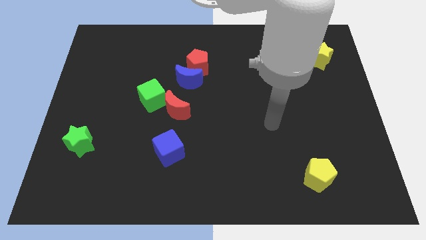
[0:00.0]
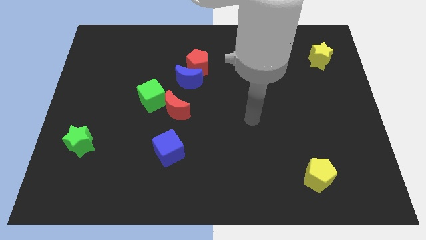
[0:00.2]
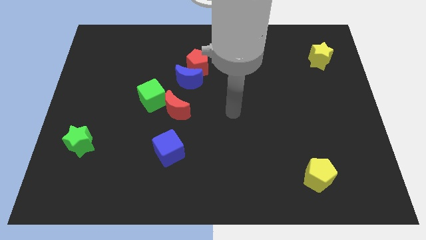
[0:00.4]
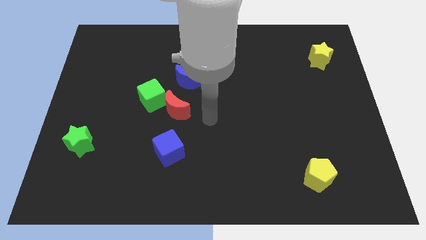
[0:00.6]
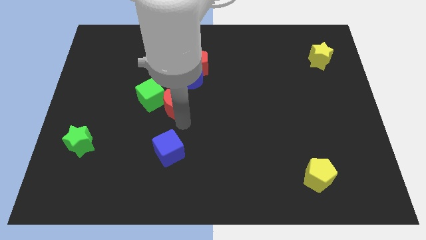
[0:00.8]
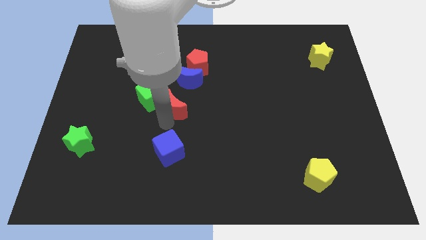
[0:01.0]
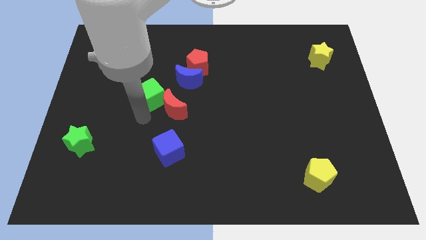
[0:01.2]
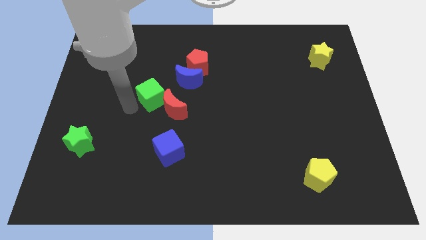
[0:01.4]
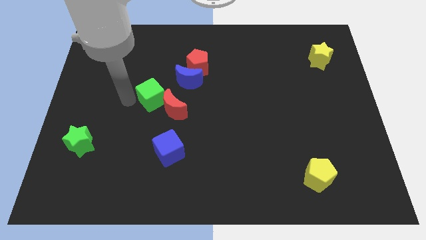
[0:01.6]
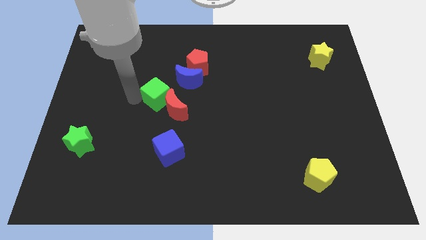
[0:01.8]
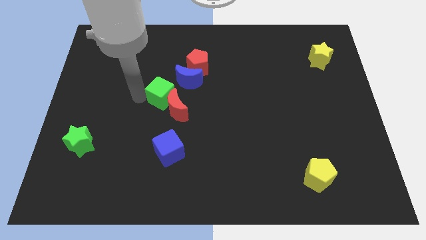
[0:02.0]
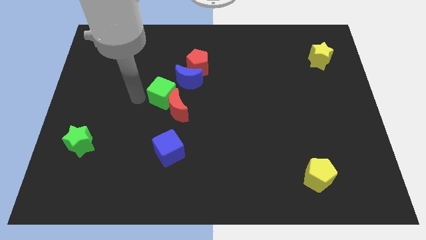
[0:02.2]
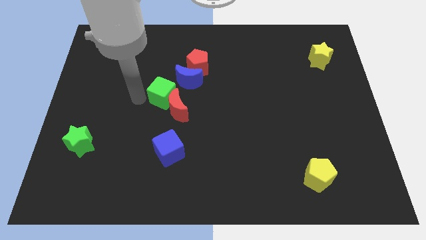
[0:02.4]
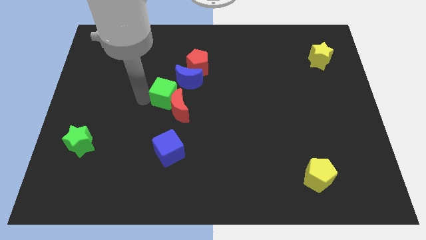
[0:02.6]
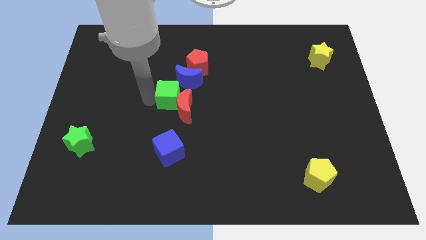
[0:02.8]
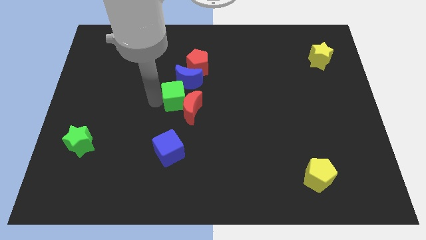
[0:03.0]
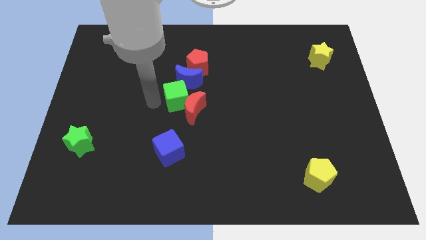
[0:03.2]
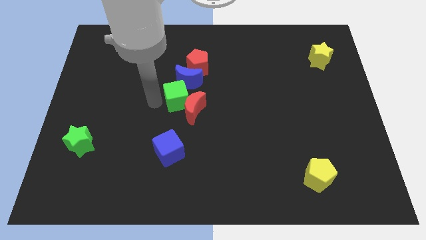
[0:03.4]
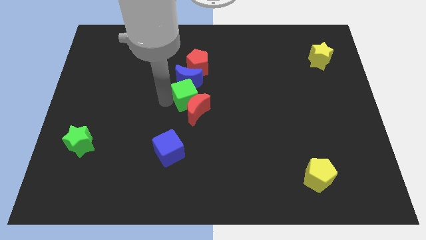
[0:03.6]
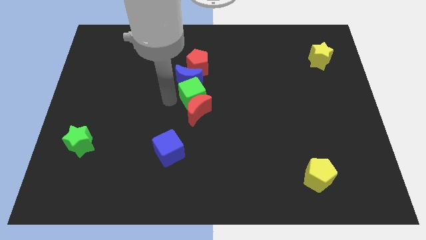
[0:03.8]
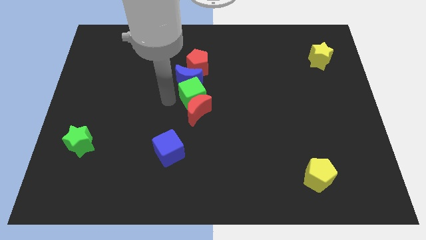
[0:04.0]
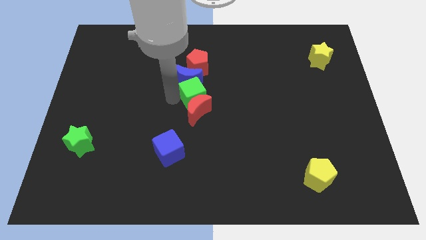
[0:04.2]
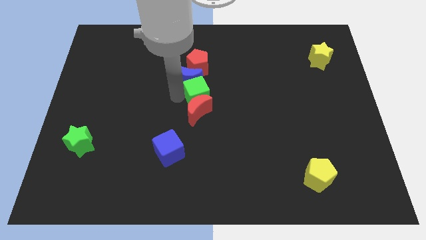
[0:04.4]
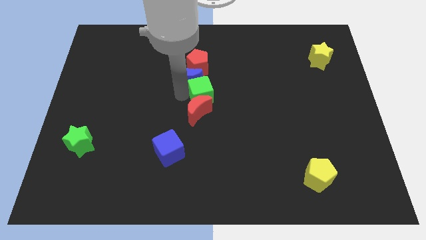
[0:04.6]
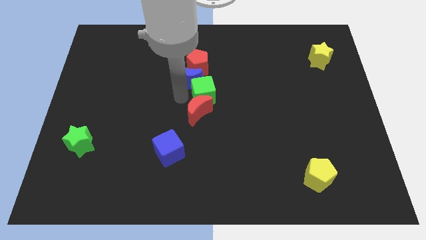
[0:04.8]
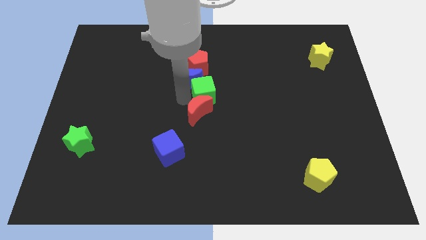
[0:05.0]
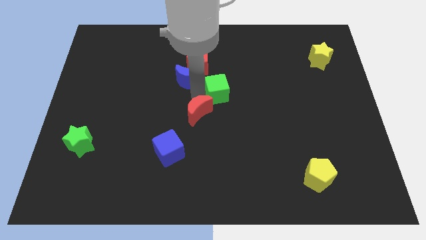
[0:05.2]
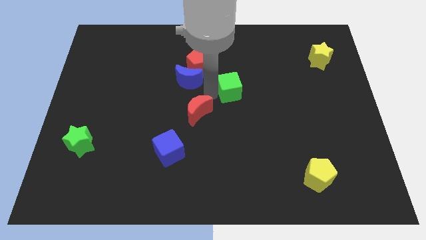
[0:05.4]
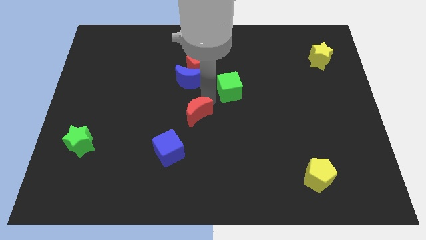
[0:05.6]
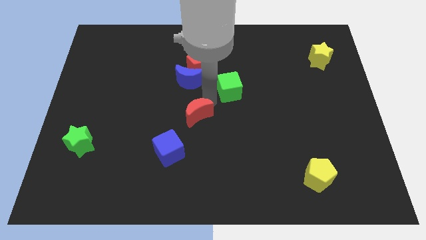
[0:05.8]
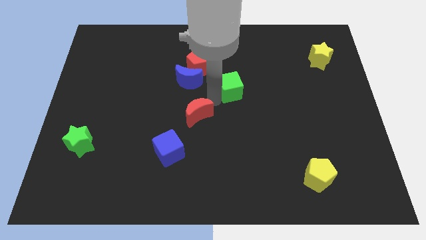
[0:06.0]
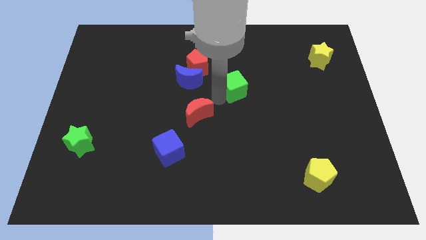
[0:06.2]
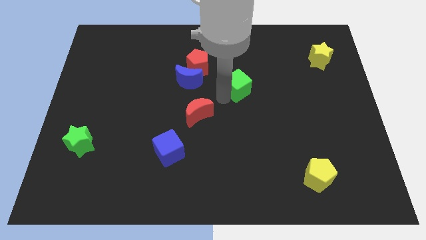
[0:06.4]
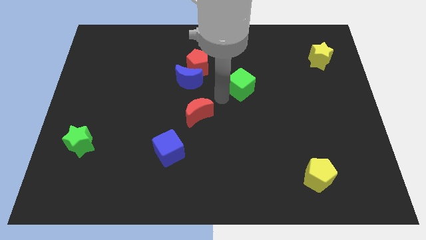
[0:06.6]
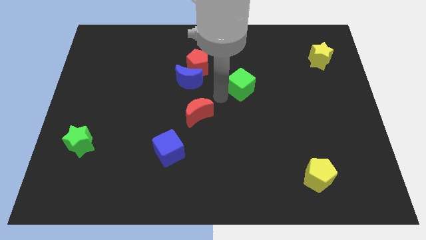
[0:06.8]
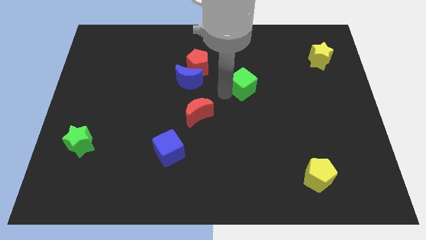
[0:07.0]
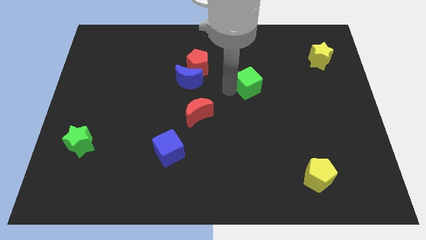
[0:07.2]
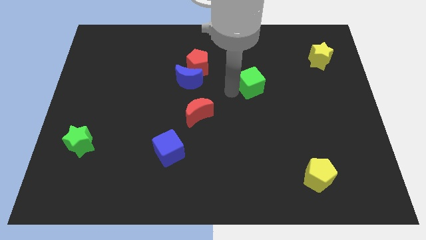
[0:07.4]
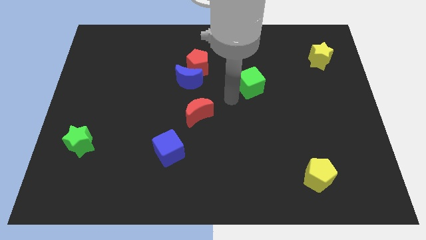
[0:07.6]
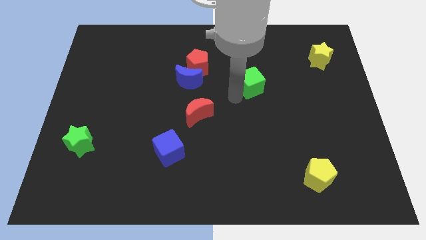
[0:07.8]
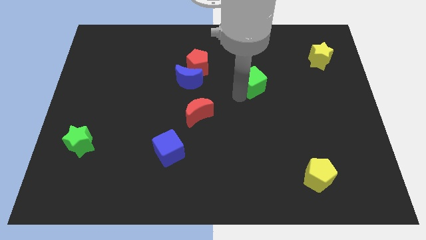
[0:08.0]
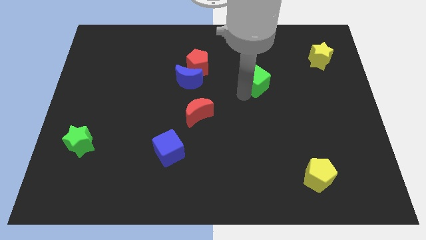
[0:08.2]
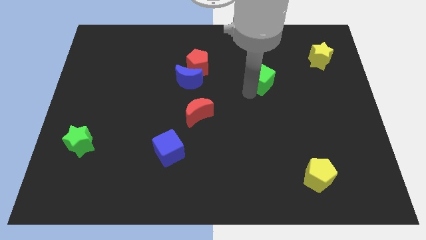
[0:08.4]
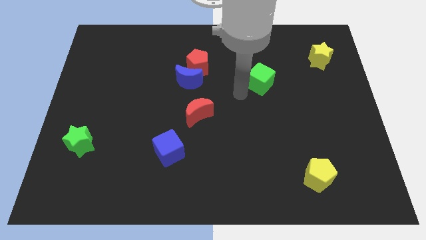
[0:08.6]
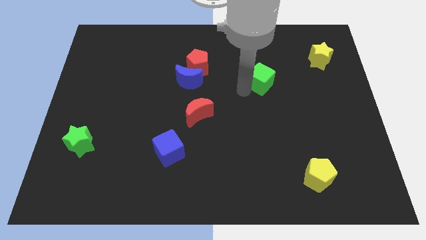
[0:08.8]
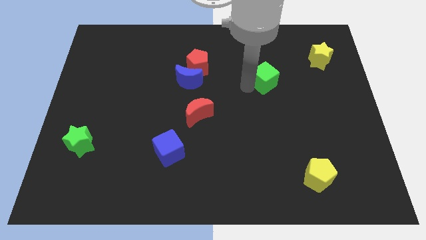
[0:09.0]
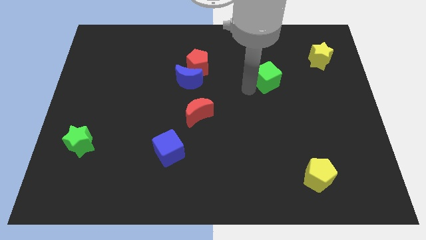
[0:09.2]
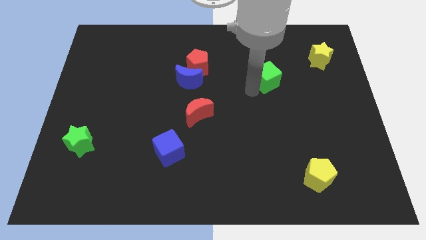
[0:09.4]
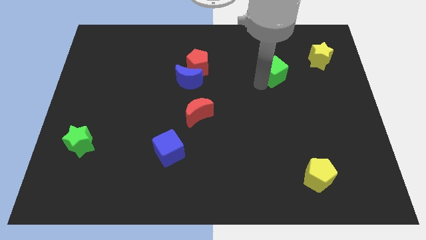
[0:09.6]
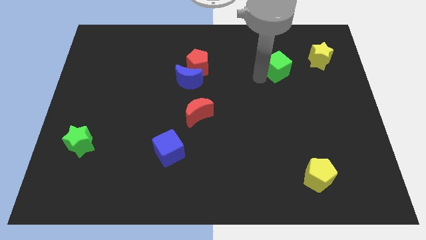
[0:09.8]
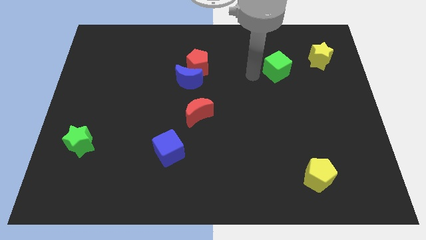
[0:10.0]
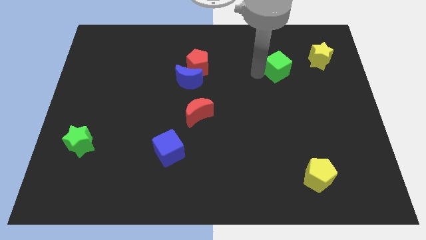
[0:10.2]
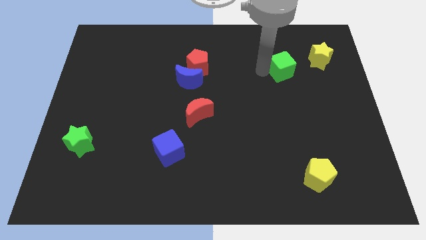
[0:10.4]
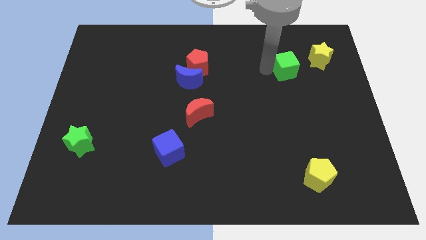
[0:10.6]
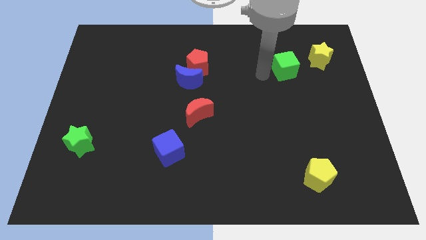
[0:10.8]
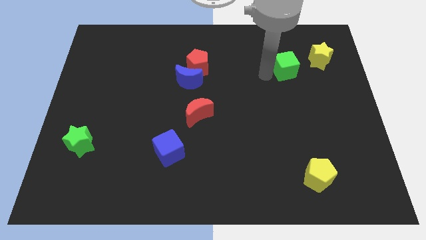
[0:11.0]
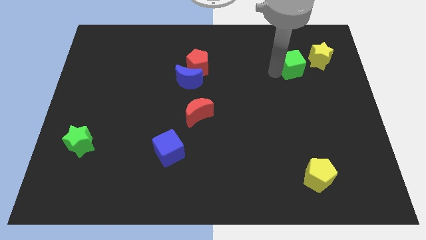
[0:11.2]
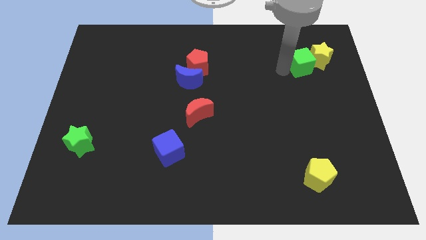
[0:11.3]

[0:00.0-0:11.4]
slide the green cube towards the yellow star

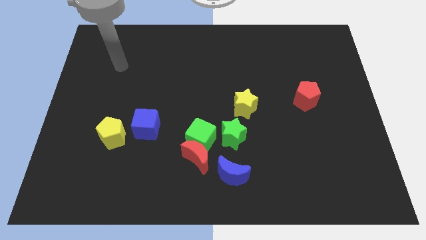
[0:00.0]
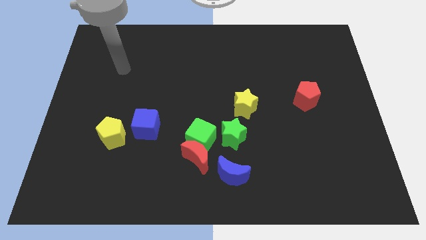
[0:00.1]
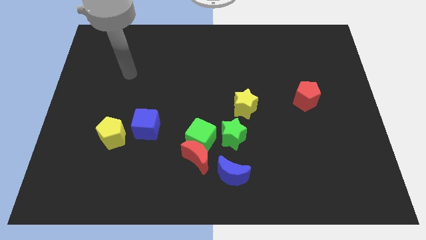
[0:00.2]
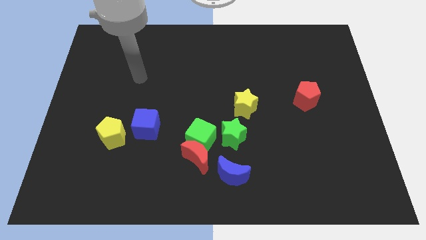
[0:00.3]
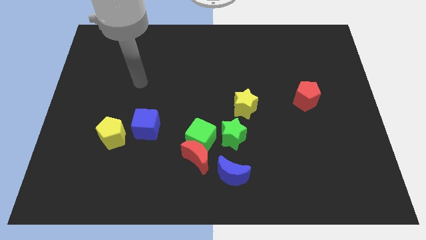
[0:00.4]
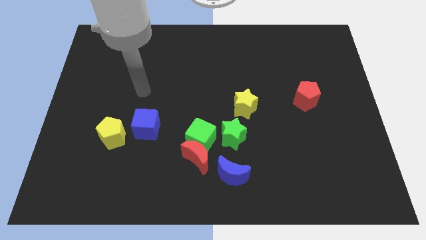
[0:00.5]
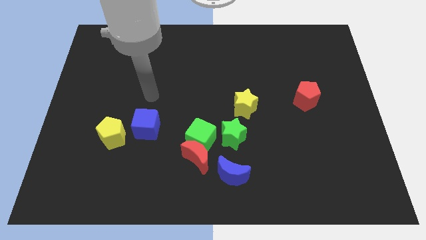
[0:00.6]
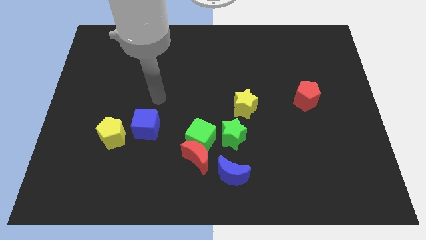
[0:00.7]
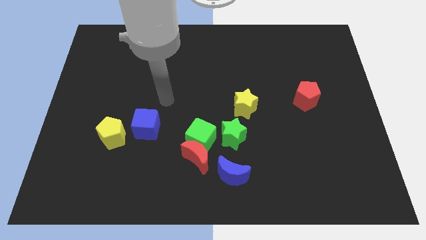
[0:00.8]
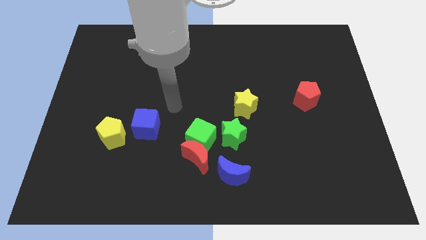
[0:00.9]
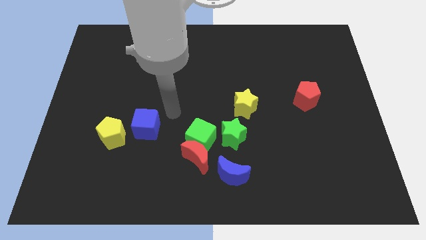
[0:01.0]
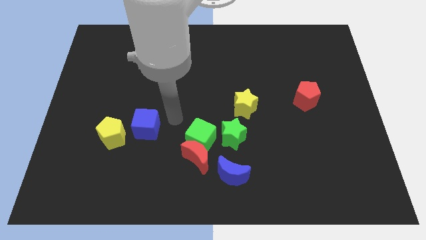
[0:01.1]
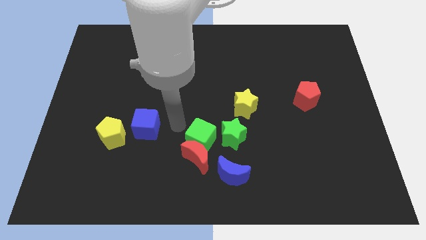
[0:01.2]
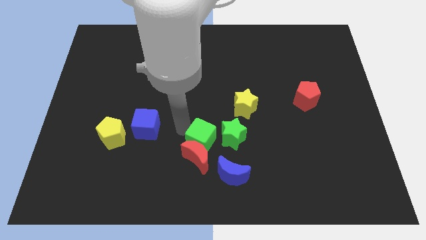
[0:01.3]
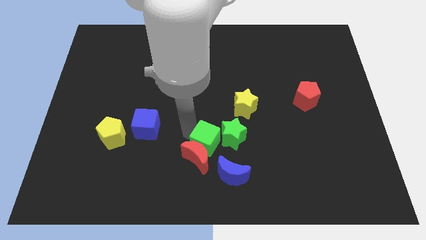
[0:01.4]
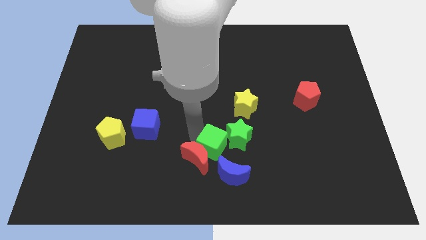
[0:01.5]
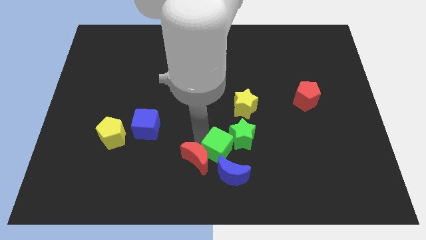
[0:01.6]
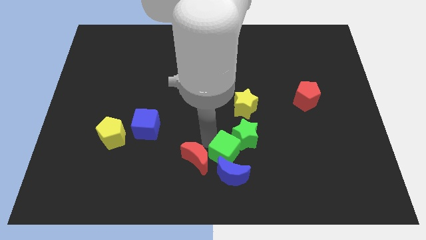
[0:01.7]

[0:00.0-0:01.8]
move the green cube to the blue moon
